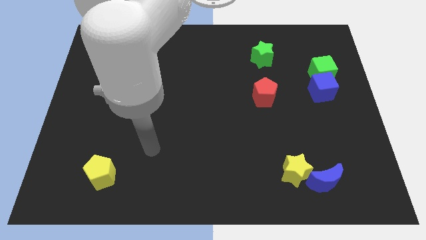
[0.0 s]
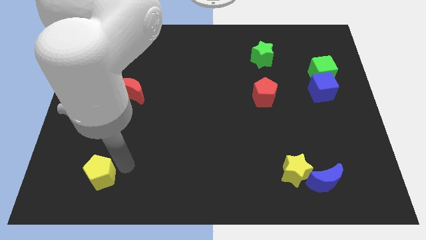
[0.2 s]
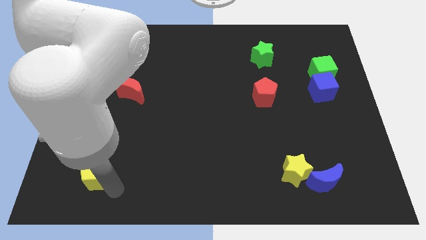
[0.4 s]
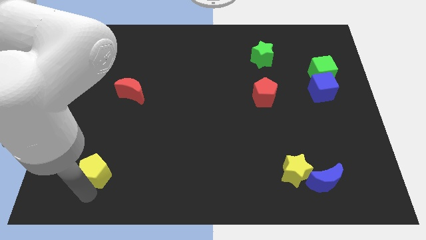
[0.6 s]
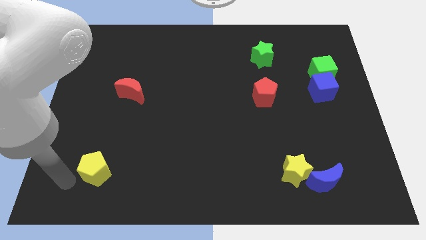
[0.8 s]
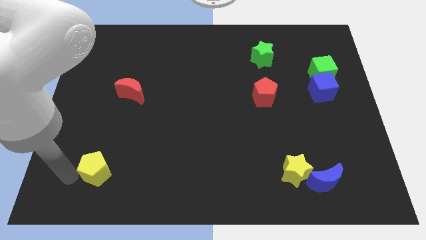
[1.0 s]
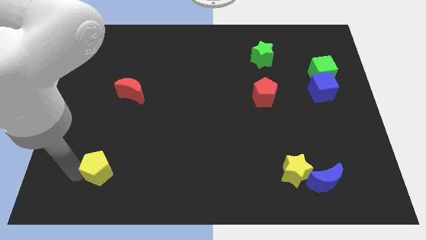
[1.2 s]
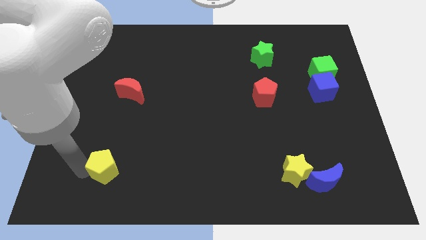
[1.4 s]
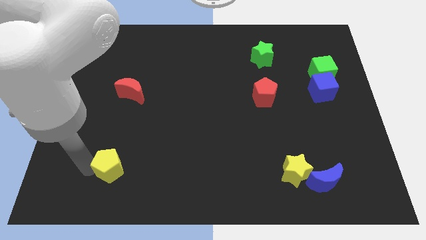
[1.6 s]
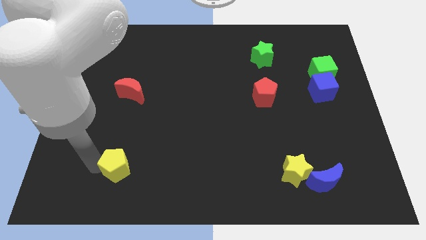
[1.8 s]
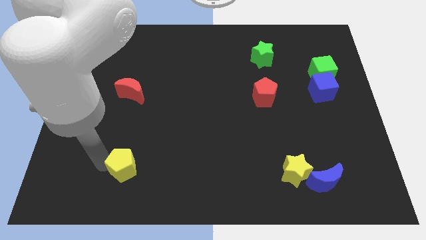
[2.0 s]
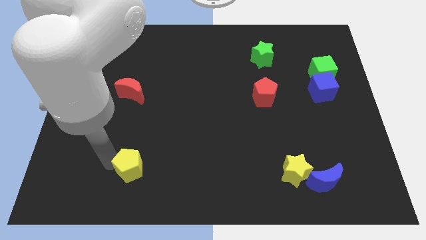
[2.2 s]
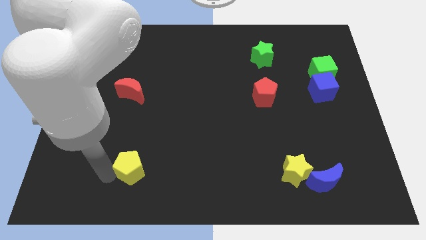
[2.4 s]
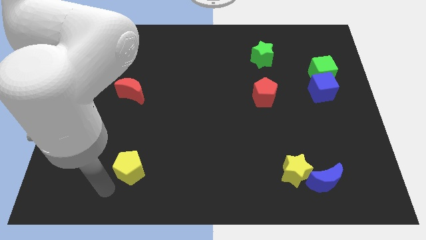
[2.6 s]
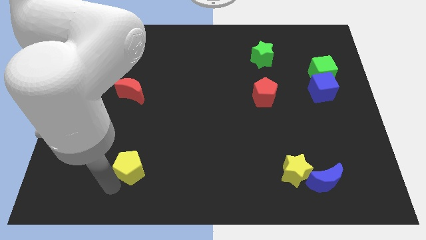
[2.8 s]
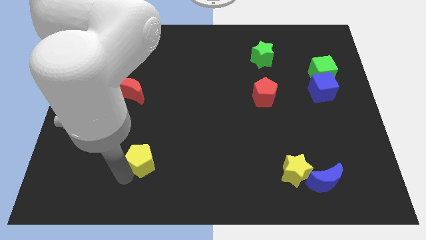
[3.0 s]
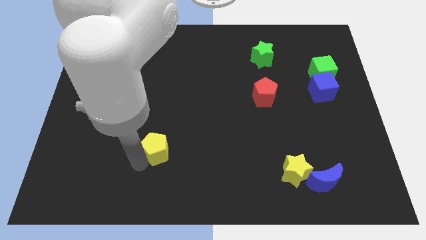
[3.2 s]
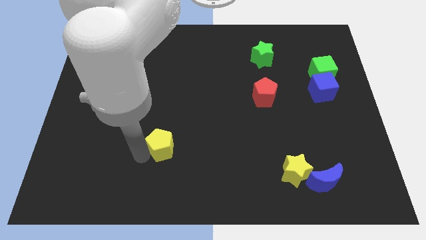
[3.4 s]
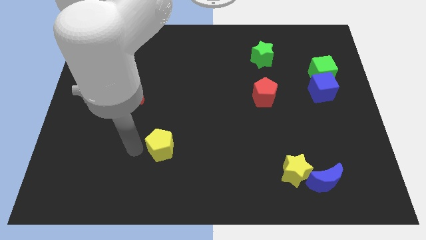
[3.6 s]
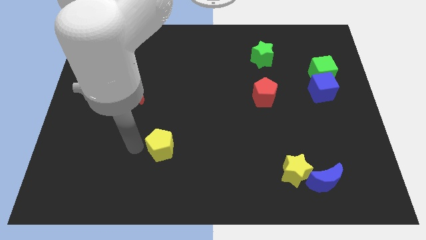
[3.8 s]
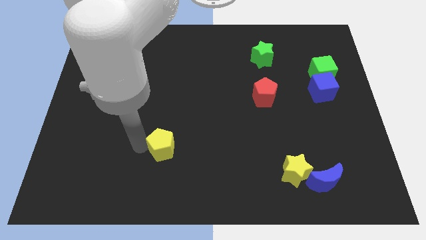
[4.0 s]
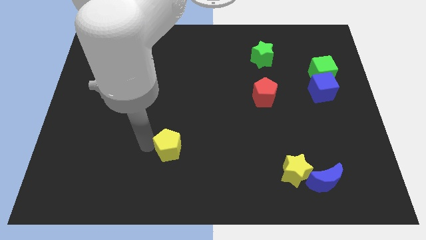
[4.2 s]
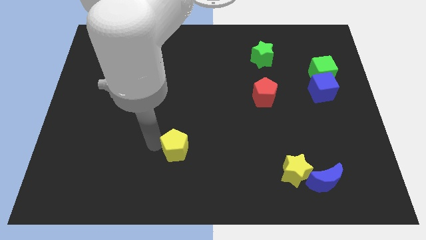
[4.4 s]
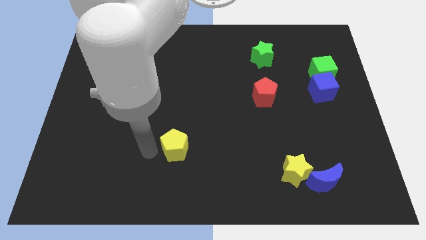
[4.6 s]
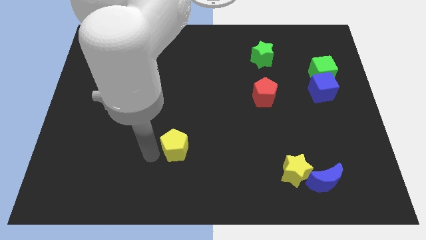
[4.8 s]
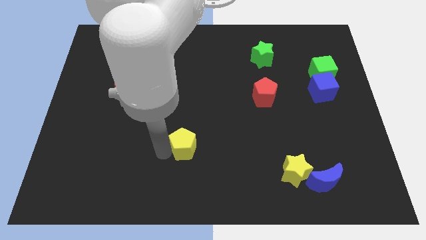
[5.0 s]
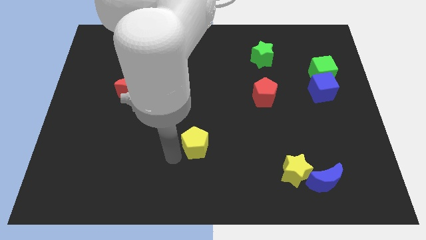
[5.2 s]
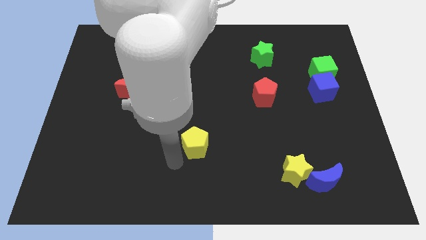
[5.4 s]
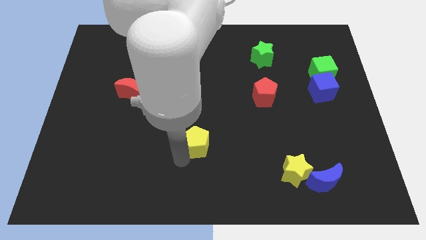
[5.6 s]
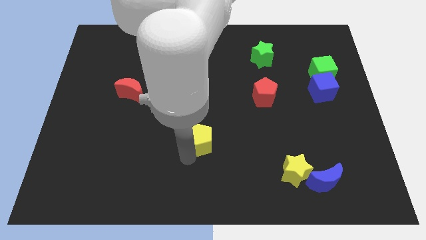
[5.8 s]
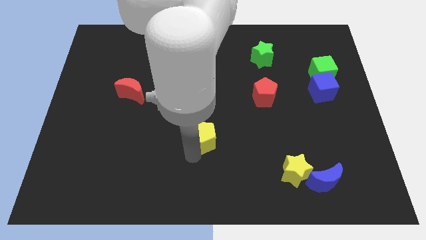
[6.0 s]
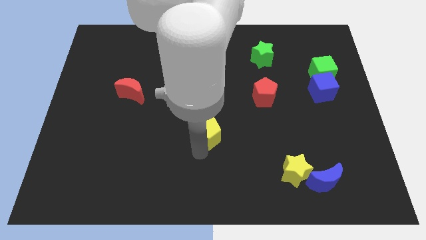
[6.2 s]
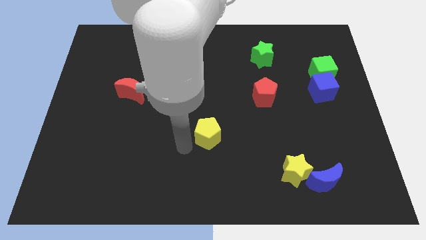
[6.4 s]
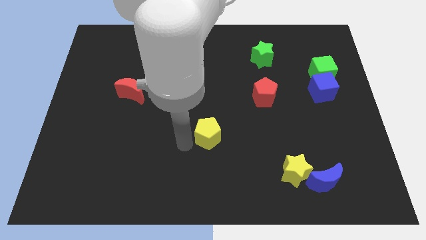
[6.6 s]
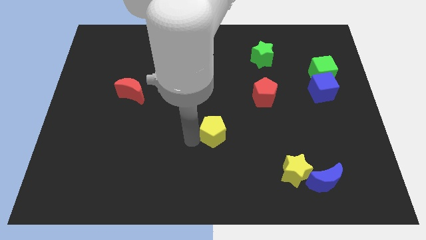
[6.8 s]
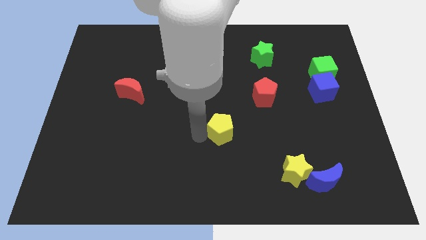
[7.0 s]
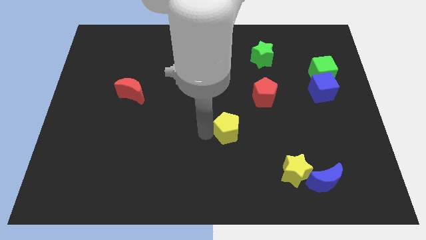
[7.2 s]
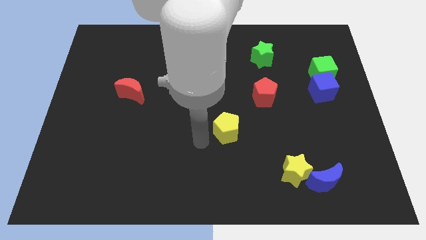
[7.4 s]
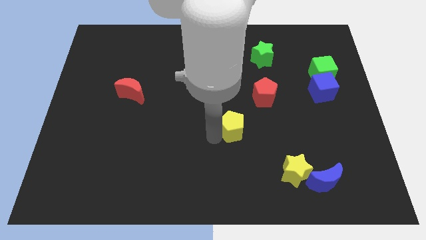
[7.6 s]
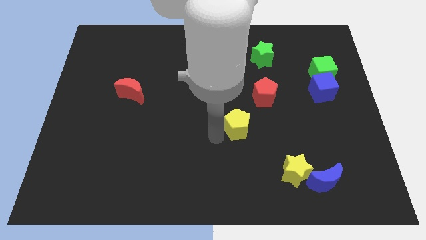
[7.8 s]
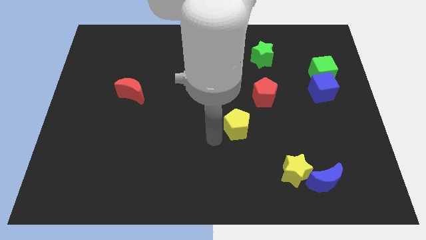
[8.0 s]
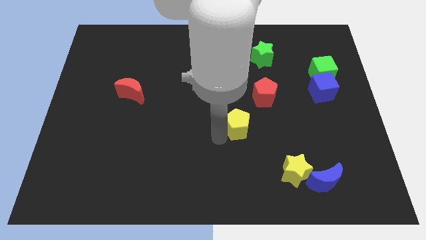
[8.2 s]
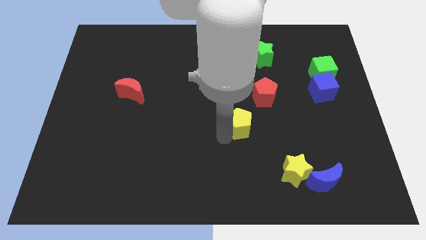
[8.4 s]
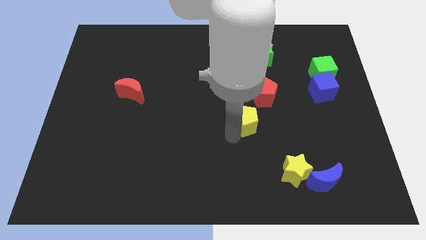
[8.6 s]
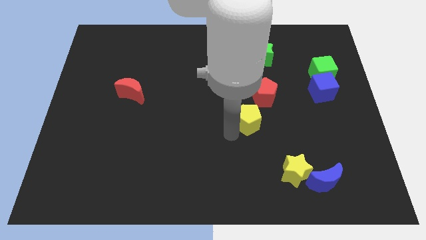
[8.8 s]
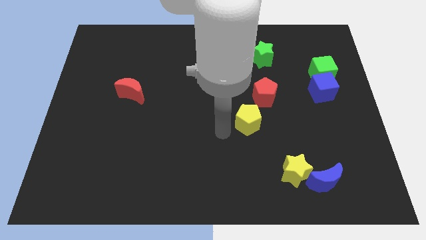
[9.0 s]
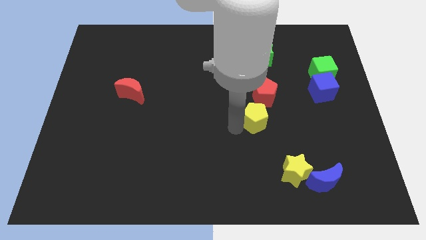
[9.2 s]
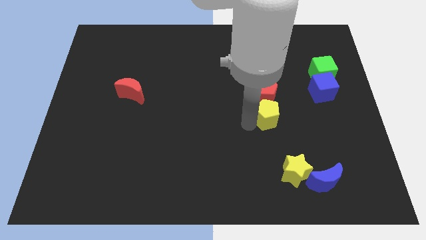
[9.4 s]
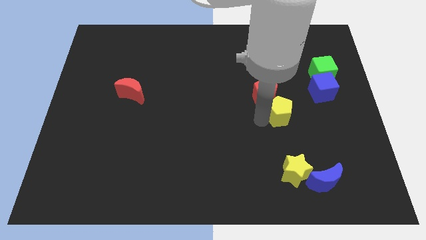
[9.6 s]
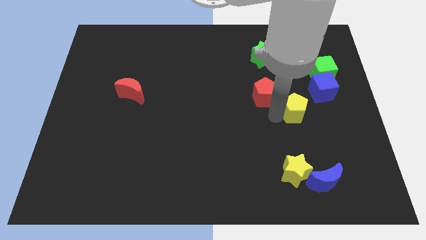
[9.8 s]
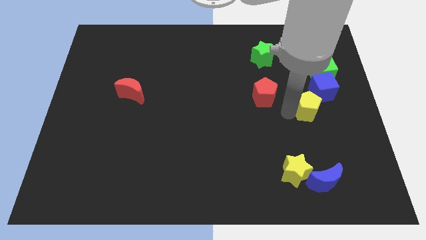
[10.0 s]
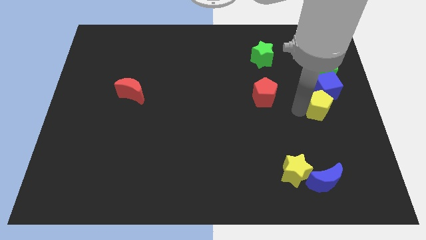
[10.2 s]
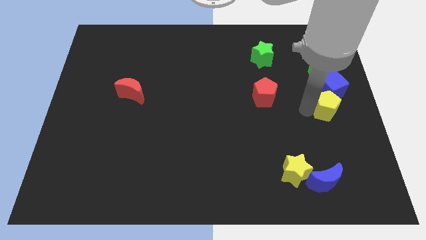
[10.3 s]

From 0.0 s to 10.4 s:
slide the yellow pentagon to the right side

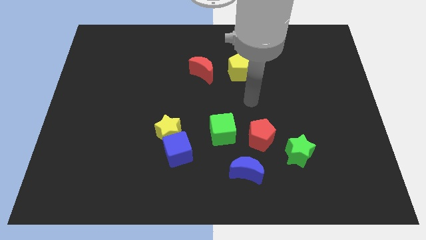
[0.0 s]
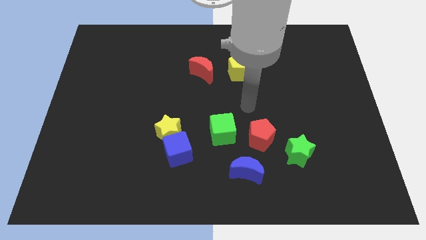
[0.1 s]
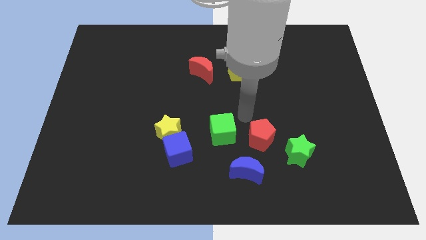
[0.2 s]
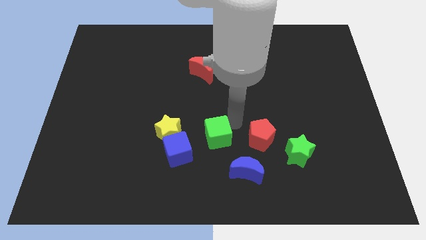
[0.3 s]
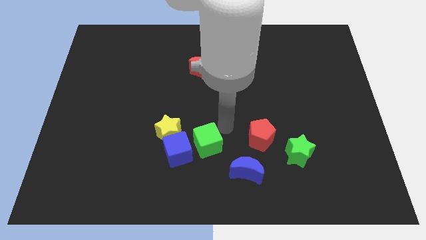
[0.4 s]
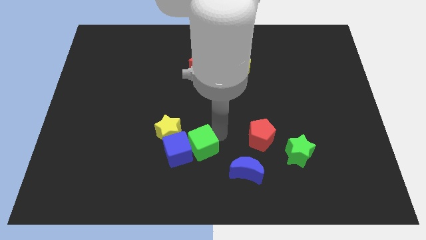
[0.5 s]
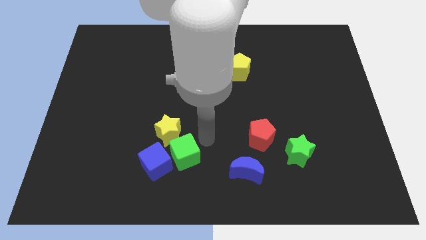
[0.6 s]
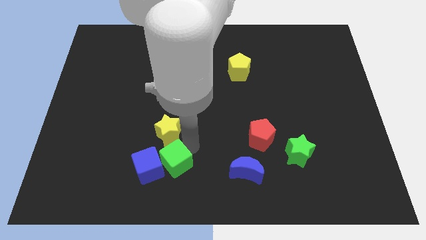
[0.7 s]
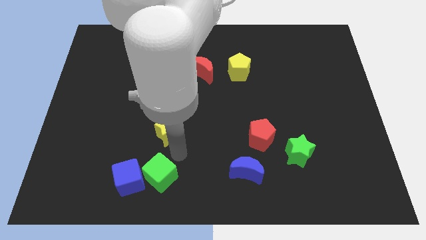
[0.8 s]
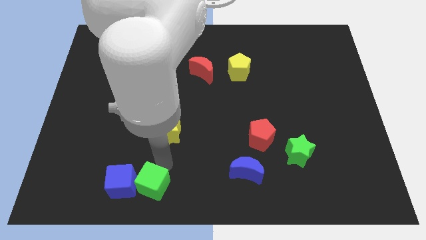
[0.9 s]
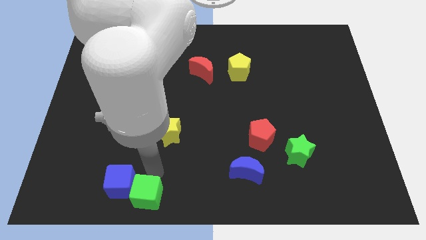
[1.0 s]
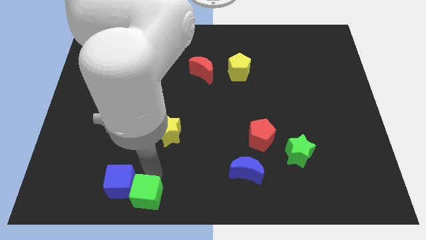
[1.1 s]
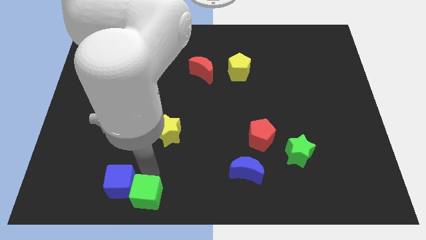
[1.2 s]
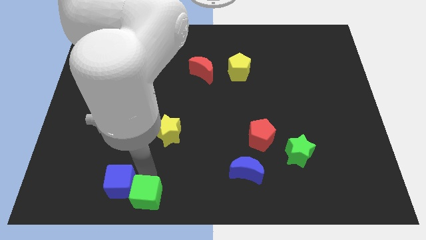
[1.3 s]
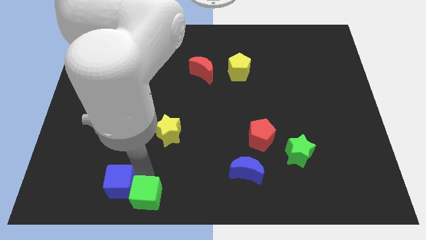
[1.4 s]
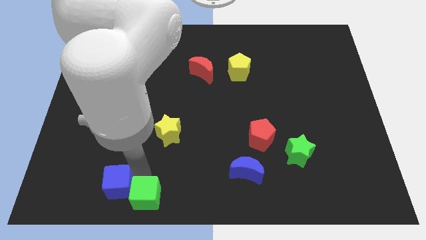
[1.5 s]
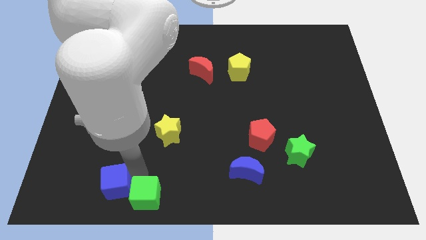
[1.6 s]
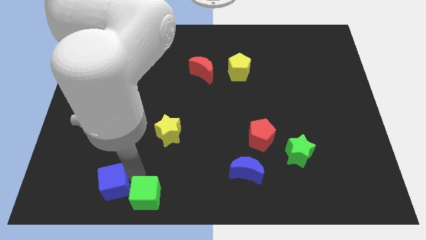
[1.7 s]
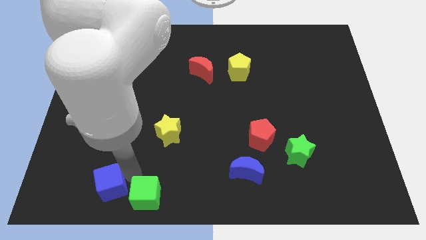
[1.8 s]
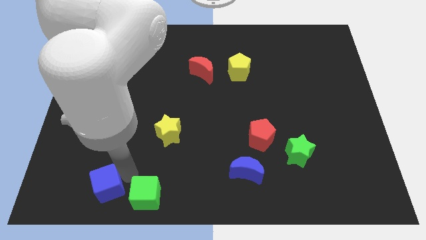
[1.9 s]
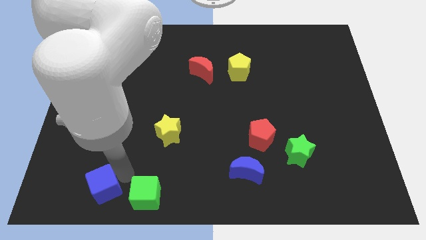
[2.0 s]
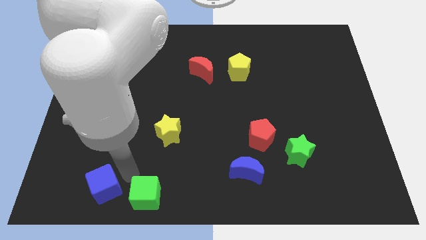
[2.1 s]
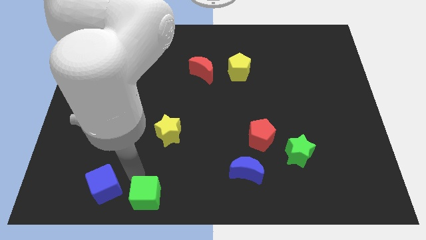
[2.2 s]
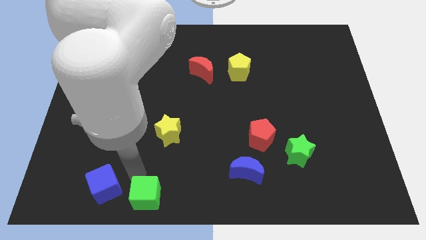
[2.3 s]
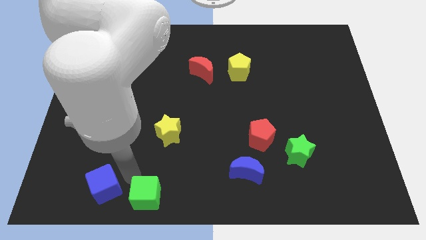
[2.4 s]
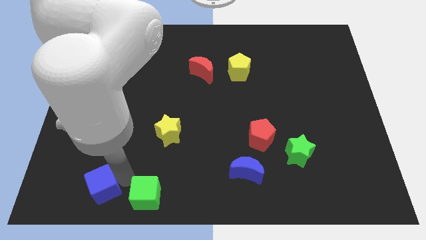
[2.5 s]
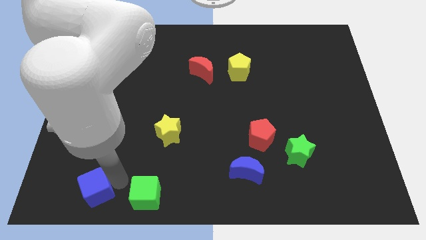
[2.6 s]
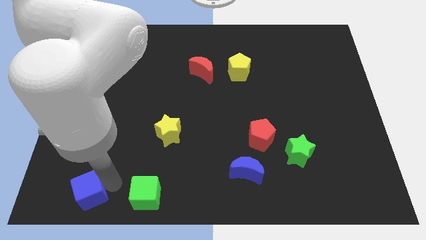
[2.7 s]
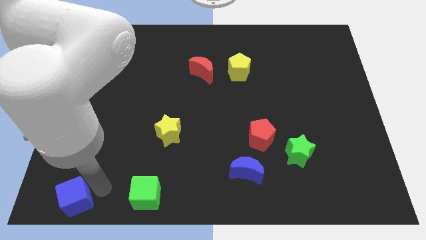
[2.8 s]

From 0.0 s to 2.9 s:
move the blue cube to the lower left corner
